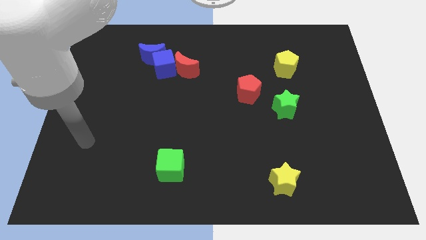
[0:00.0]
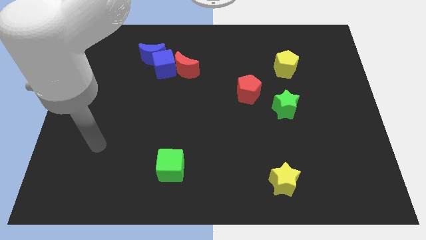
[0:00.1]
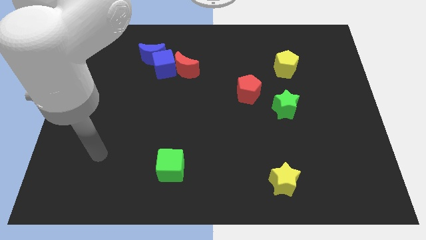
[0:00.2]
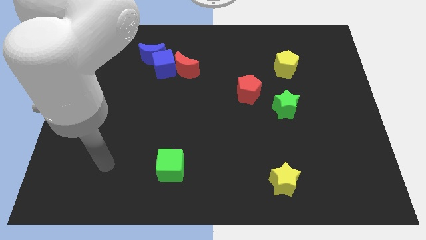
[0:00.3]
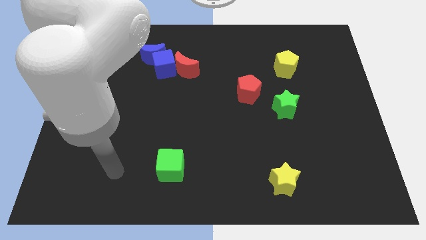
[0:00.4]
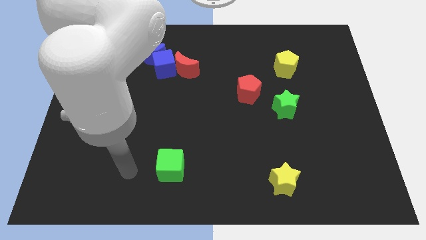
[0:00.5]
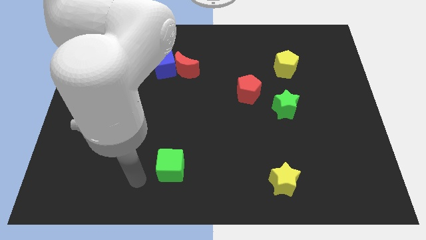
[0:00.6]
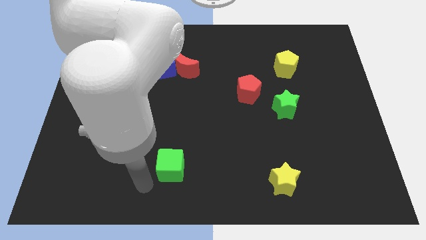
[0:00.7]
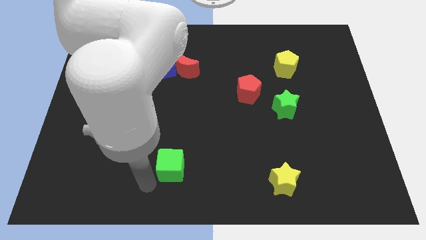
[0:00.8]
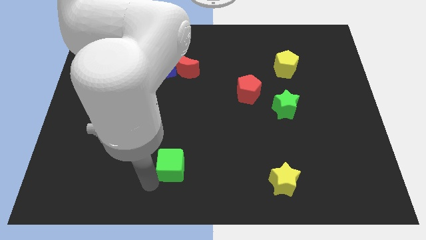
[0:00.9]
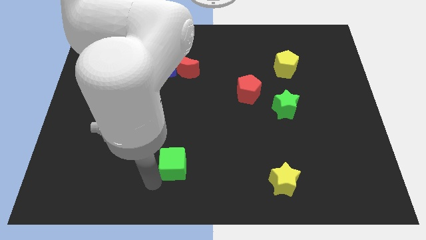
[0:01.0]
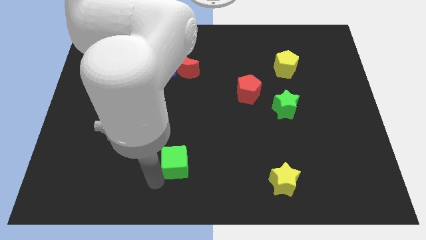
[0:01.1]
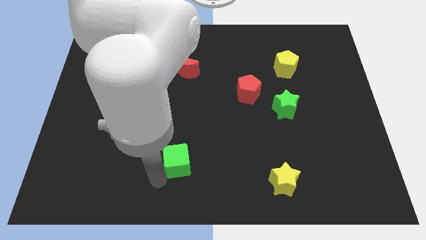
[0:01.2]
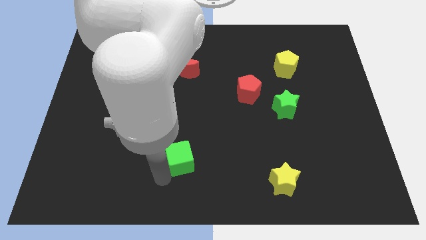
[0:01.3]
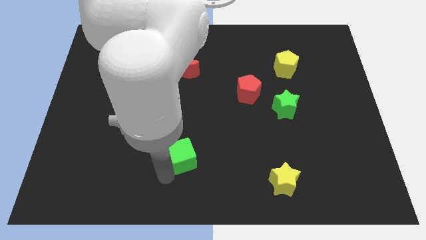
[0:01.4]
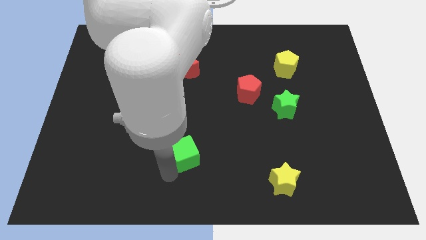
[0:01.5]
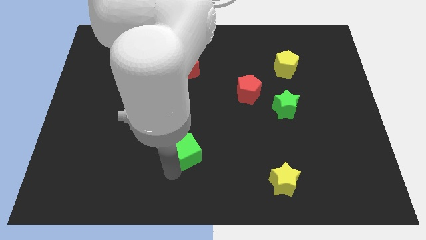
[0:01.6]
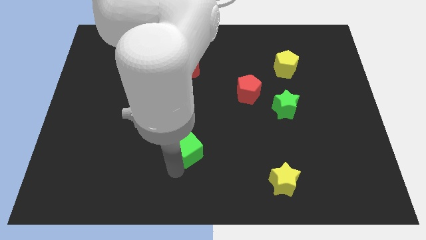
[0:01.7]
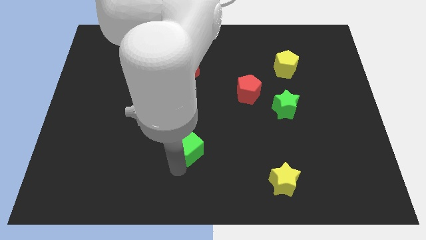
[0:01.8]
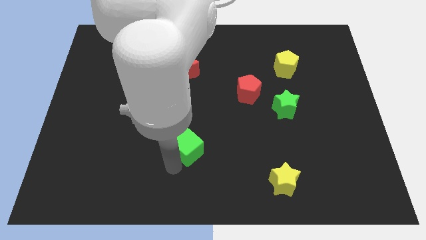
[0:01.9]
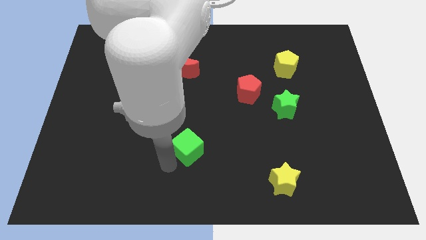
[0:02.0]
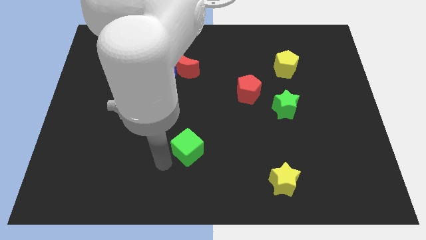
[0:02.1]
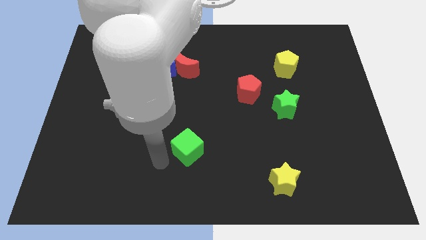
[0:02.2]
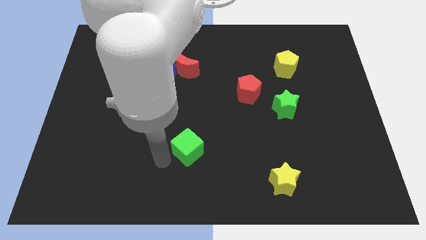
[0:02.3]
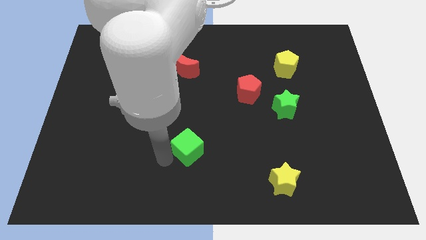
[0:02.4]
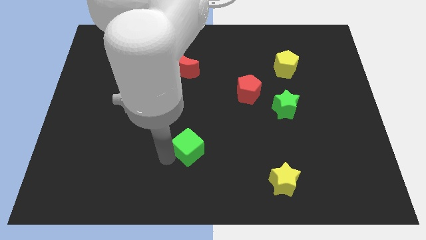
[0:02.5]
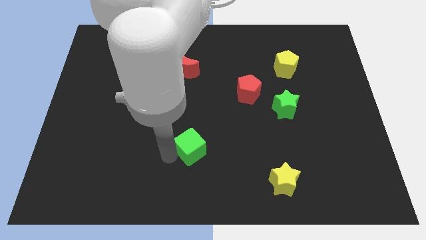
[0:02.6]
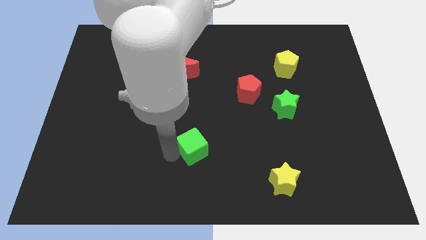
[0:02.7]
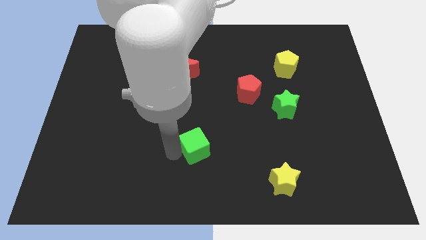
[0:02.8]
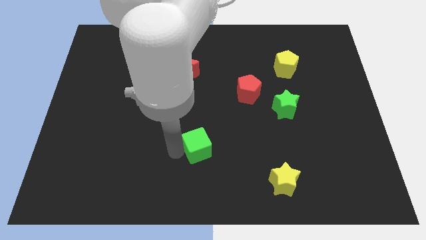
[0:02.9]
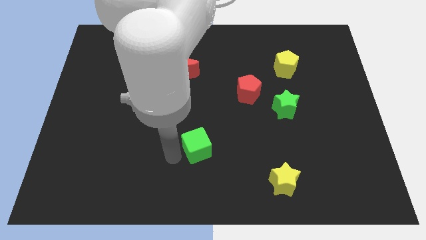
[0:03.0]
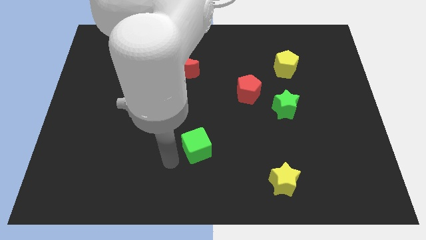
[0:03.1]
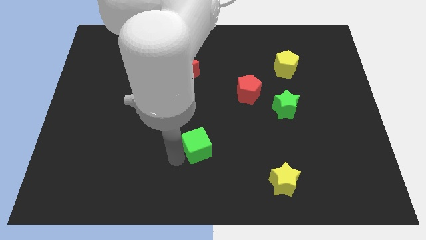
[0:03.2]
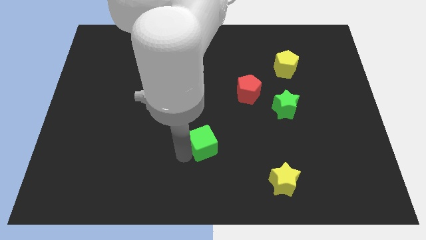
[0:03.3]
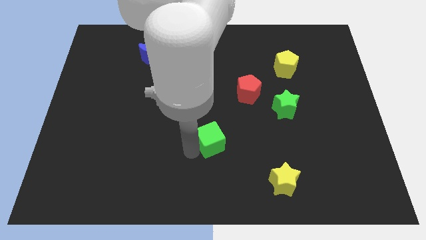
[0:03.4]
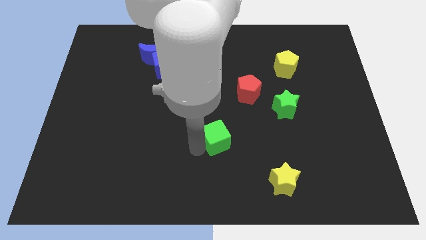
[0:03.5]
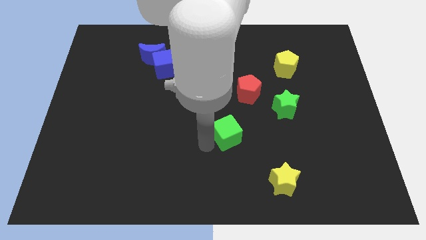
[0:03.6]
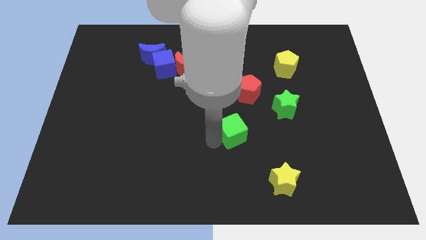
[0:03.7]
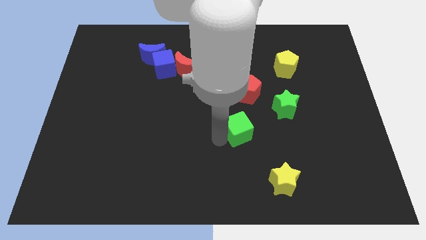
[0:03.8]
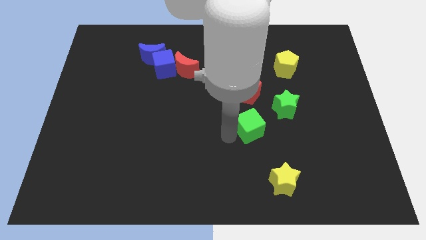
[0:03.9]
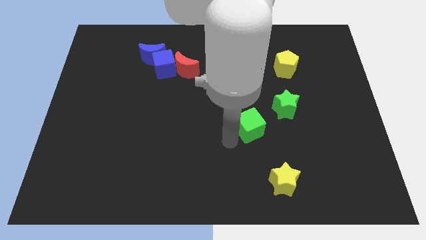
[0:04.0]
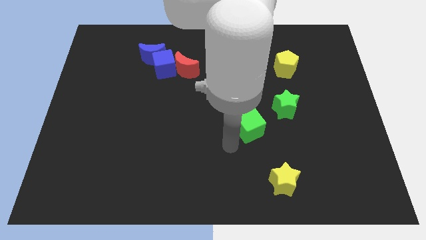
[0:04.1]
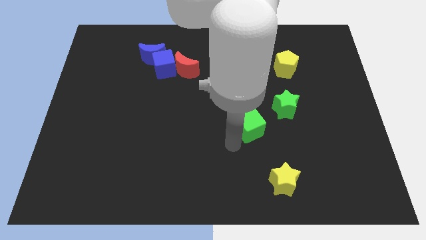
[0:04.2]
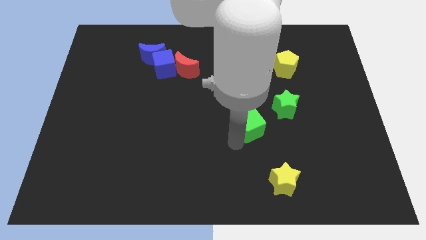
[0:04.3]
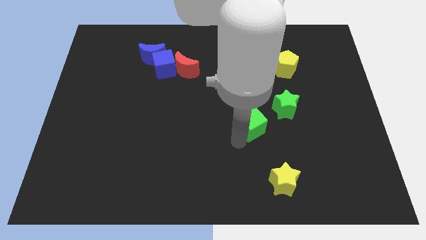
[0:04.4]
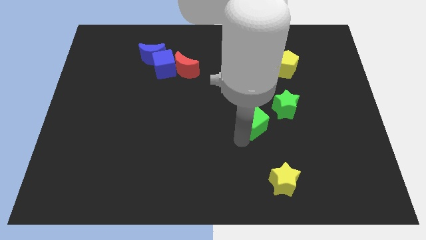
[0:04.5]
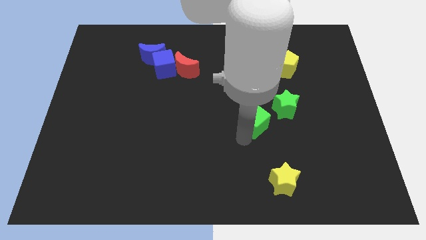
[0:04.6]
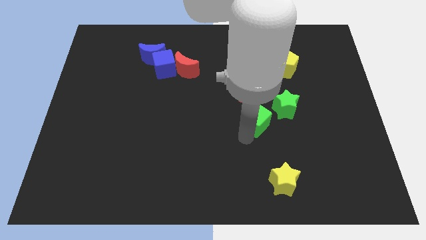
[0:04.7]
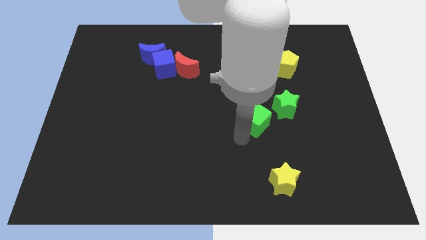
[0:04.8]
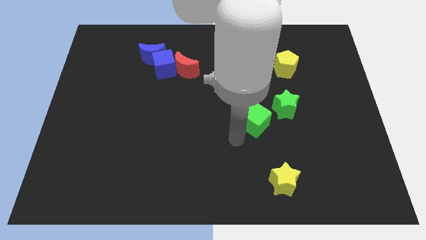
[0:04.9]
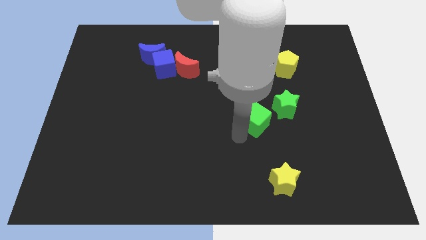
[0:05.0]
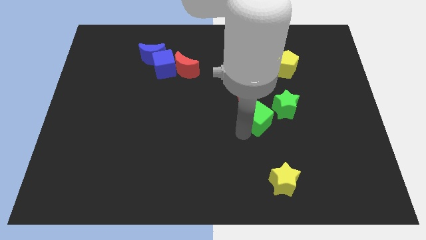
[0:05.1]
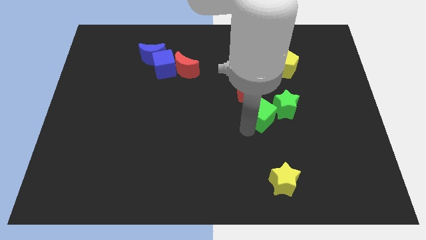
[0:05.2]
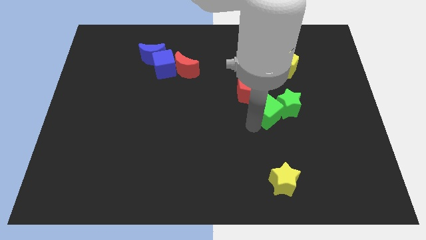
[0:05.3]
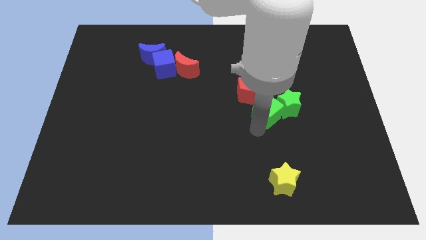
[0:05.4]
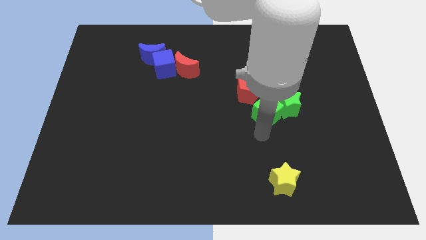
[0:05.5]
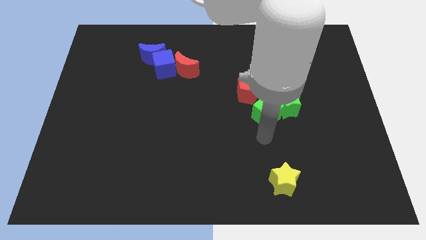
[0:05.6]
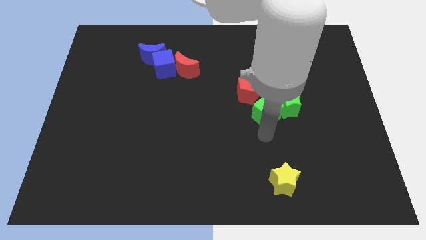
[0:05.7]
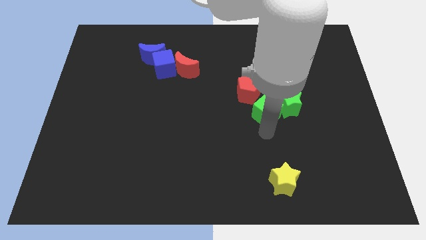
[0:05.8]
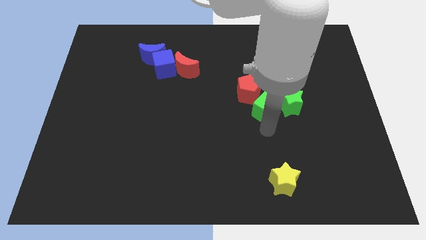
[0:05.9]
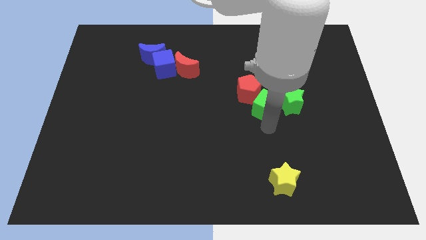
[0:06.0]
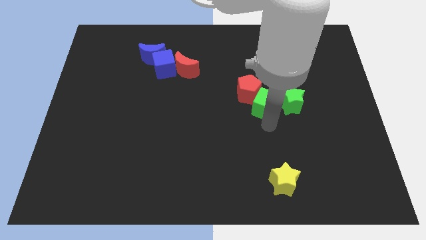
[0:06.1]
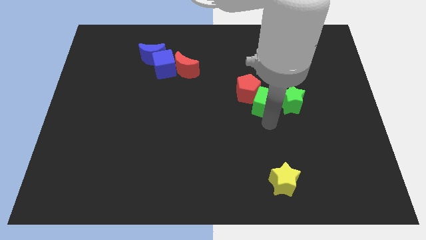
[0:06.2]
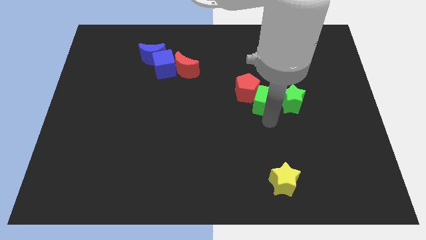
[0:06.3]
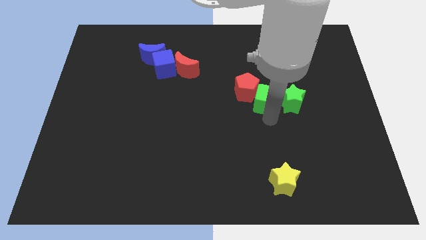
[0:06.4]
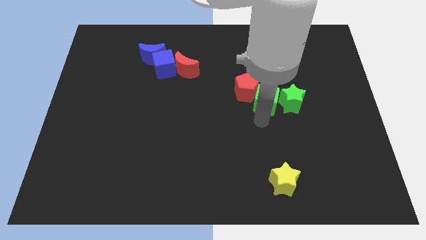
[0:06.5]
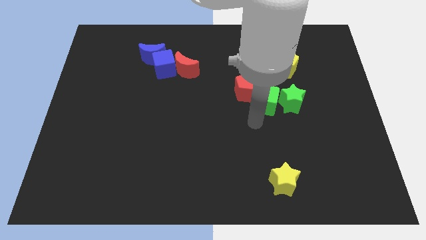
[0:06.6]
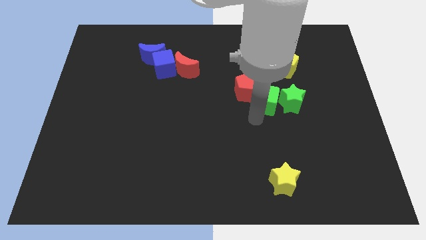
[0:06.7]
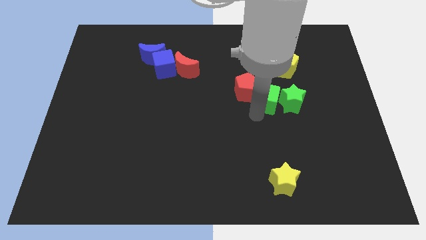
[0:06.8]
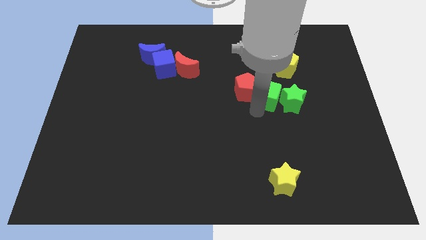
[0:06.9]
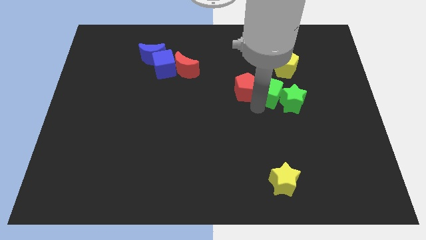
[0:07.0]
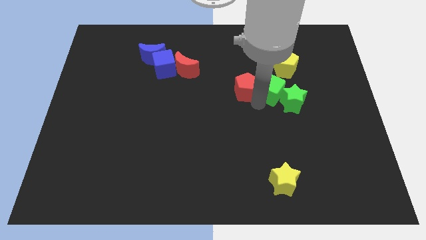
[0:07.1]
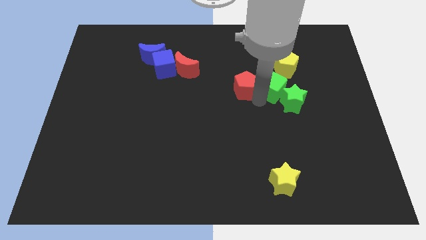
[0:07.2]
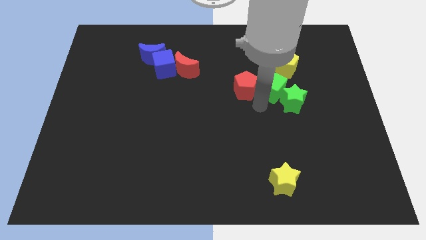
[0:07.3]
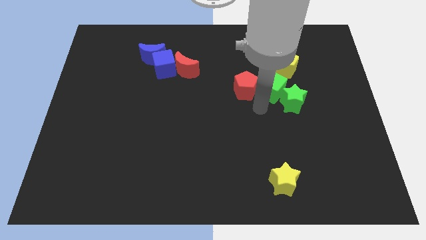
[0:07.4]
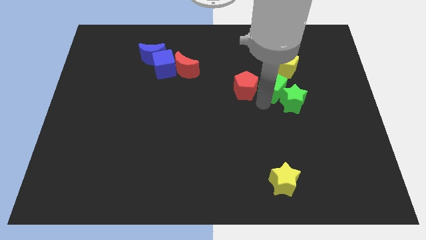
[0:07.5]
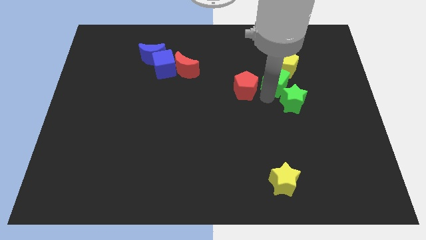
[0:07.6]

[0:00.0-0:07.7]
push the green cube towards the yellow pentagon
